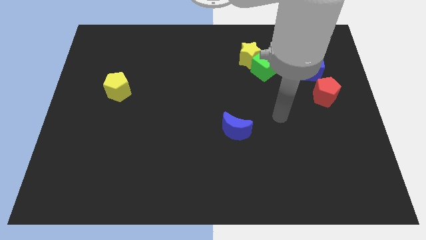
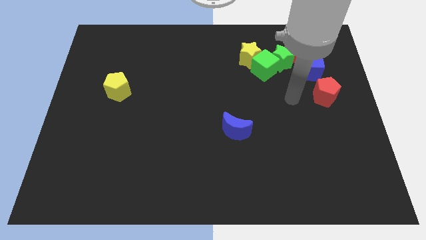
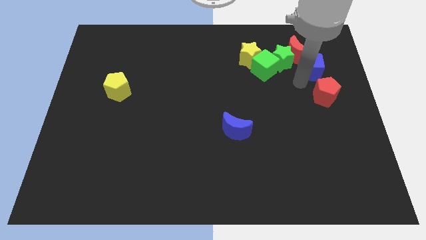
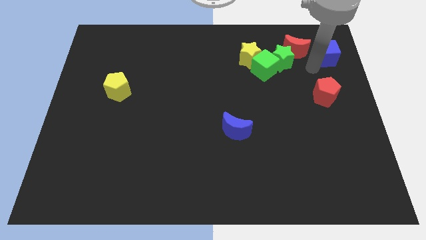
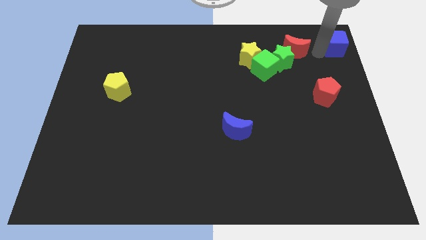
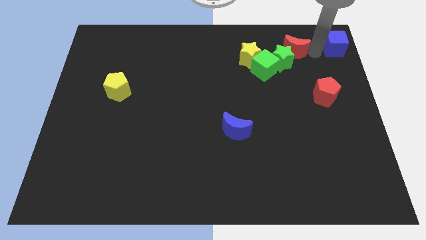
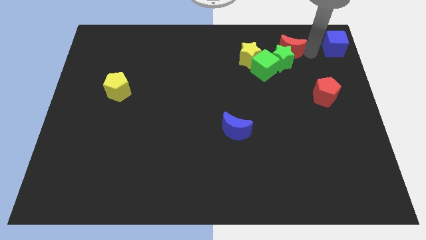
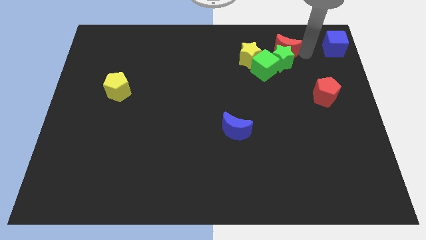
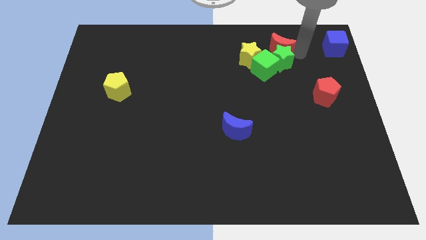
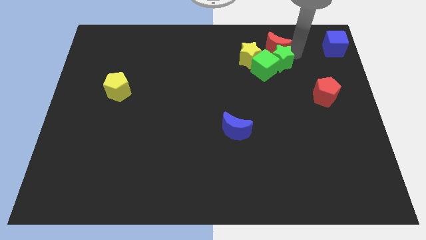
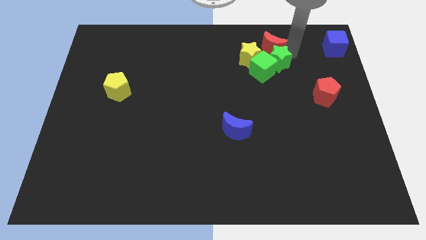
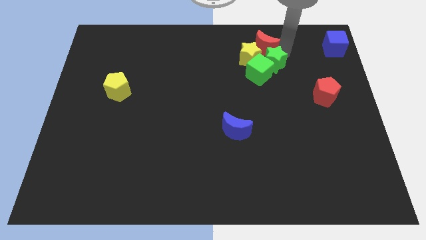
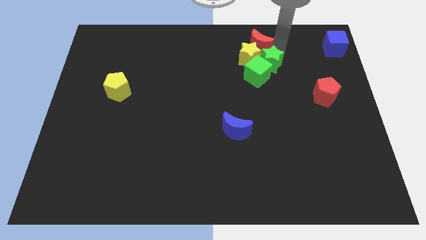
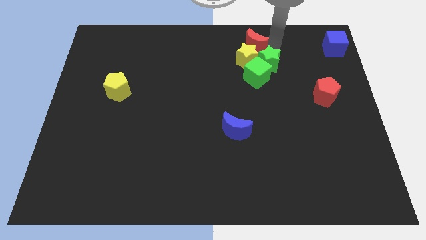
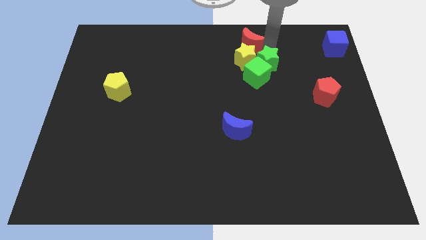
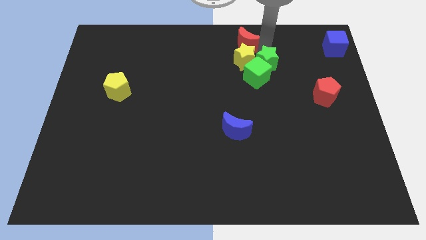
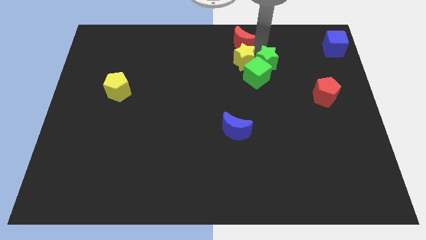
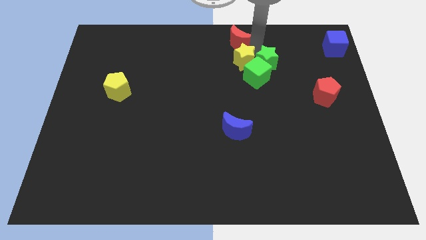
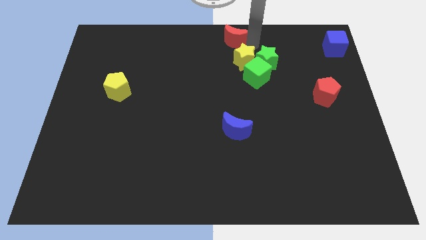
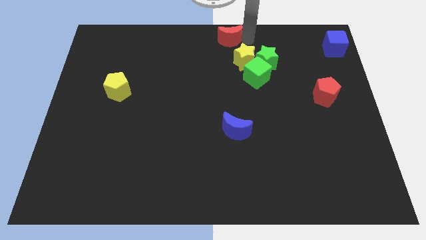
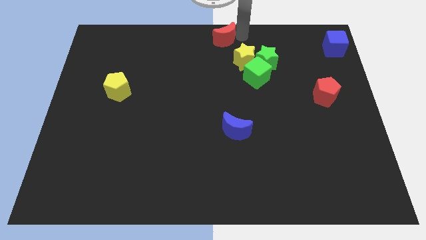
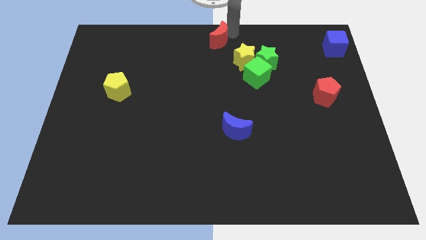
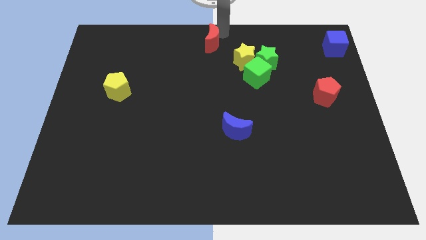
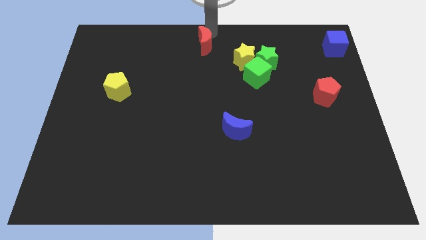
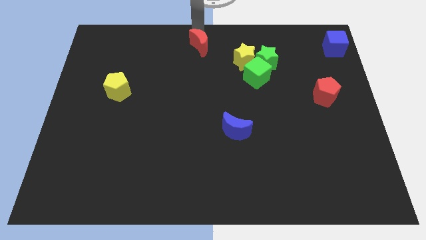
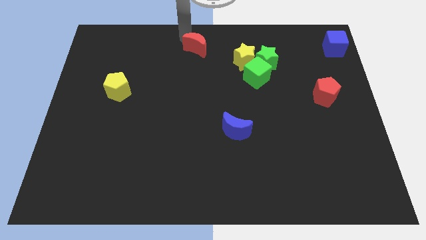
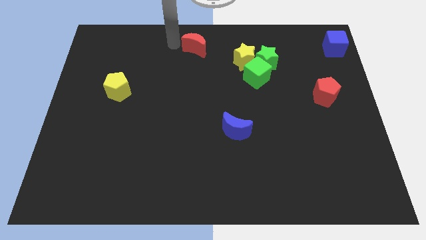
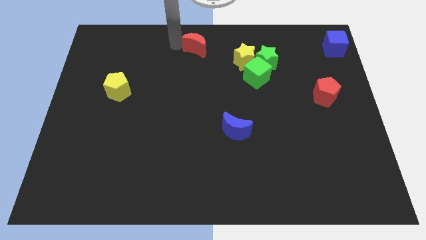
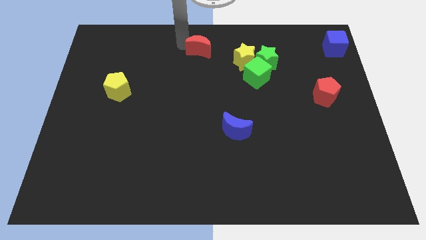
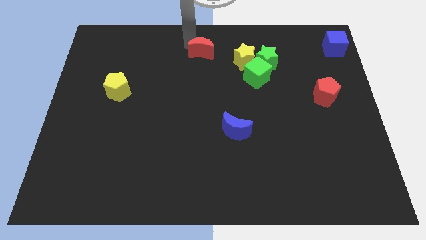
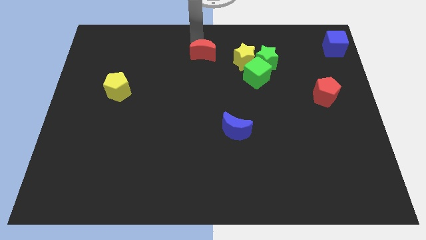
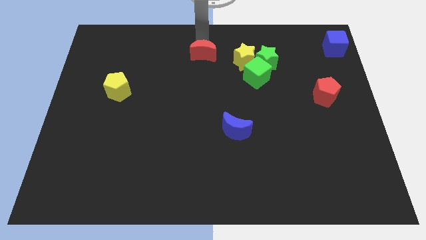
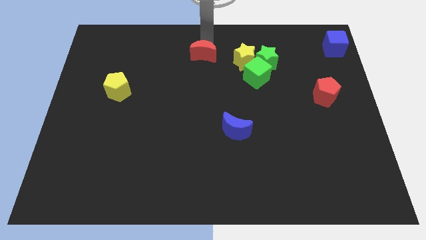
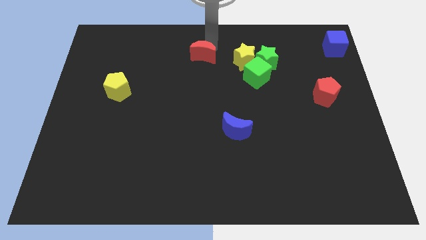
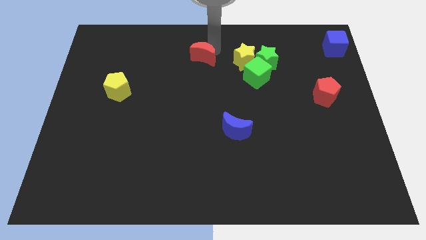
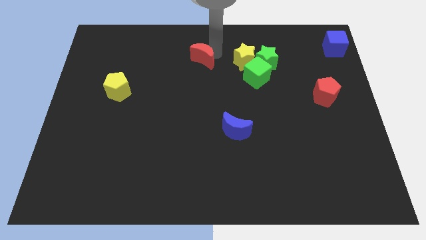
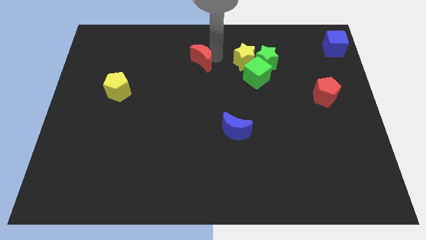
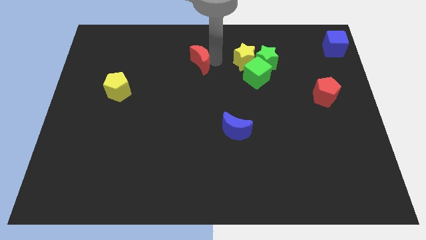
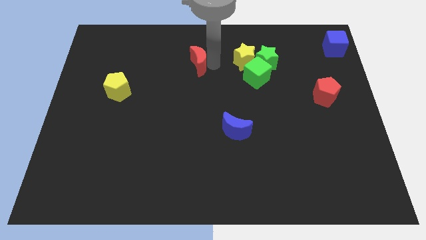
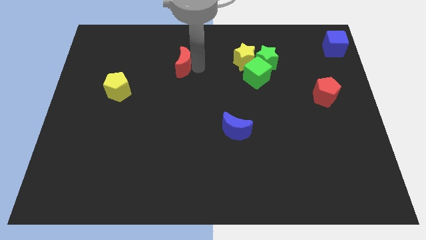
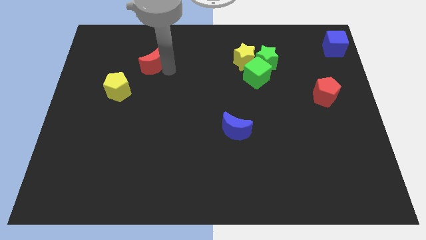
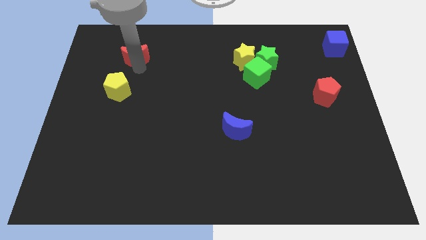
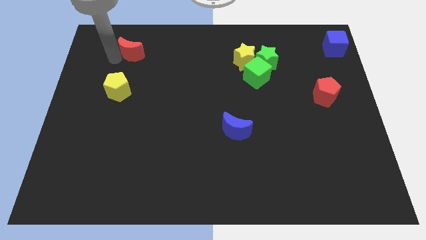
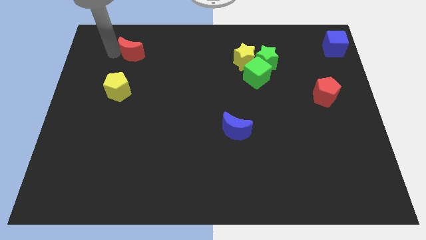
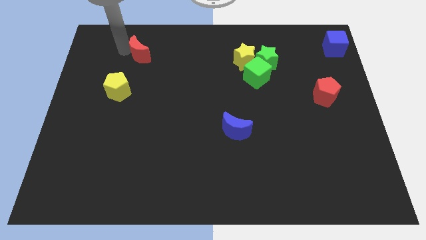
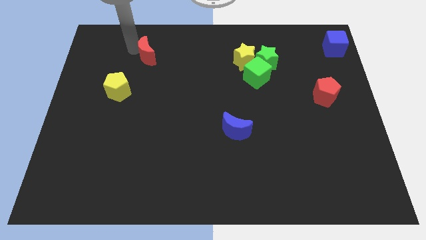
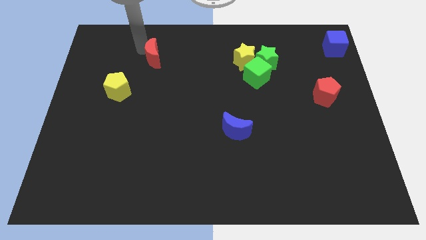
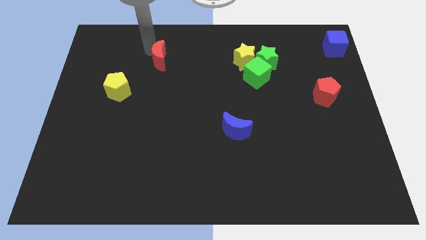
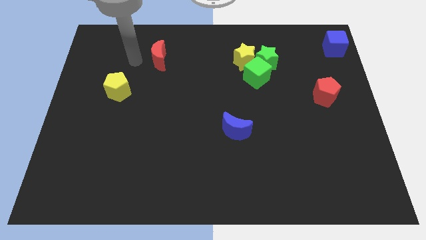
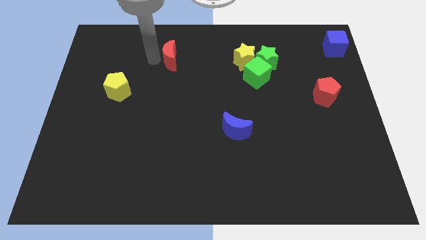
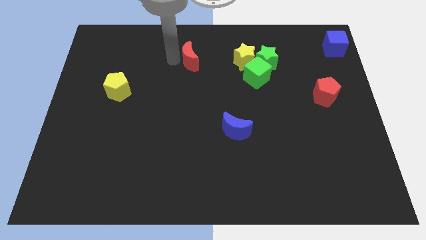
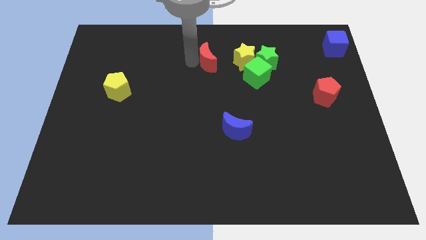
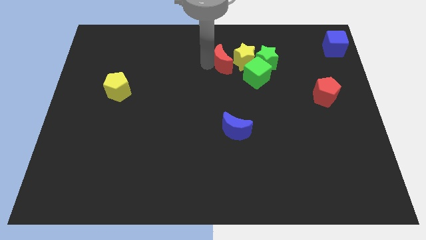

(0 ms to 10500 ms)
slightly push the red moon diagonally downwards and left

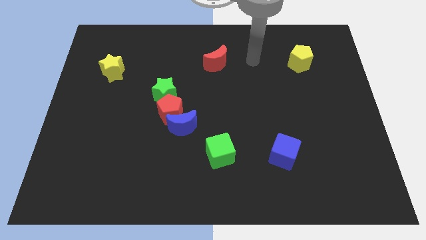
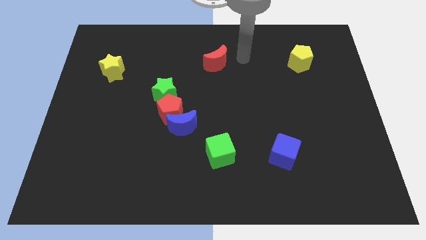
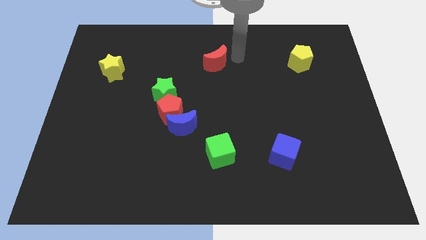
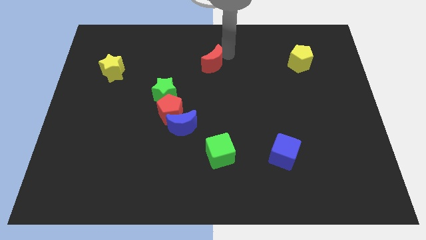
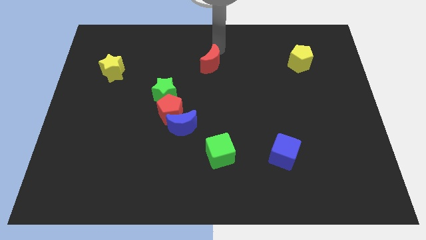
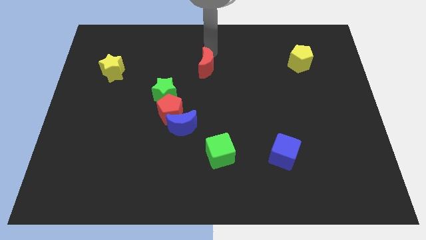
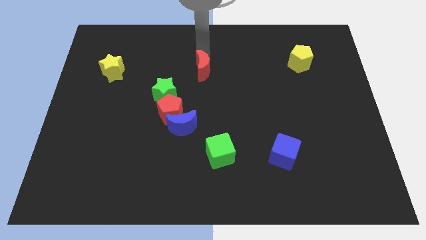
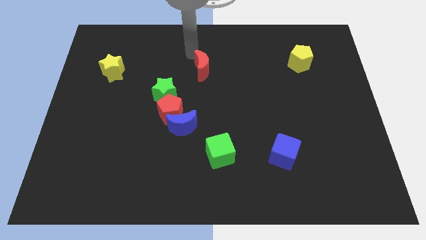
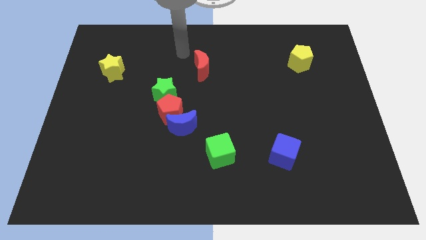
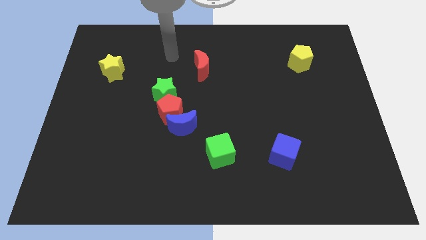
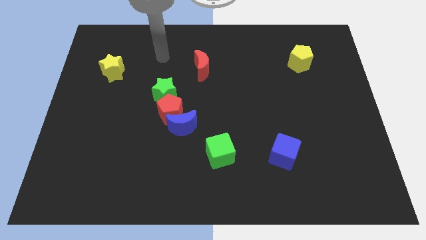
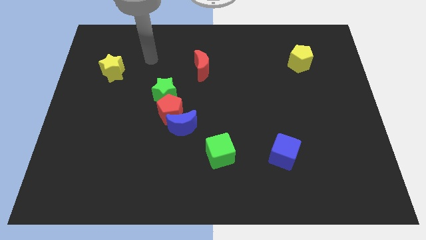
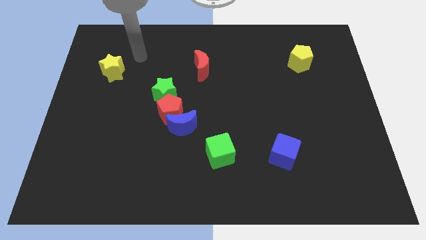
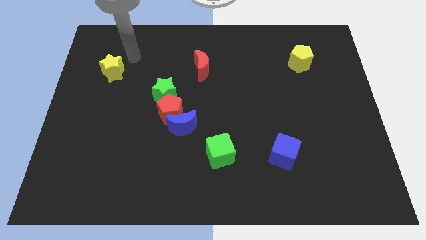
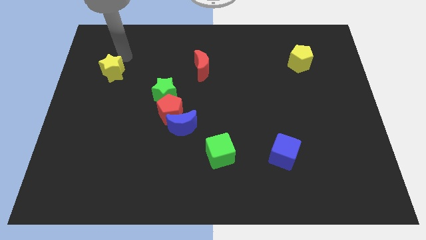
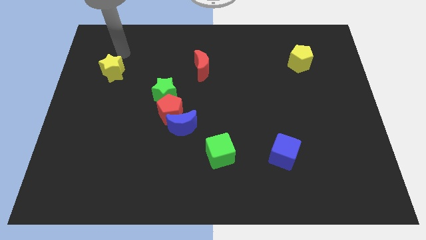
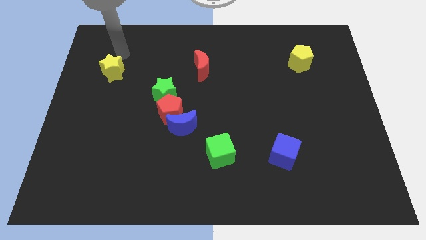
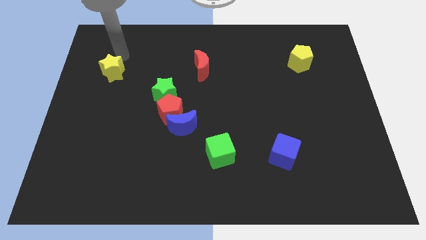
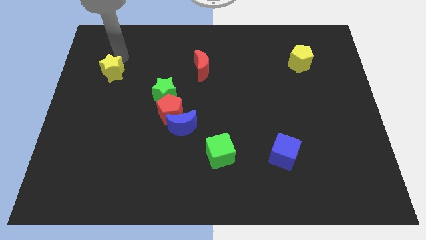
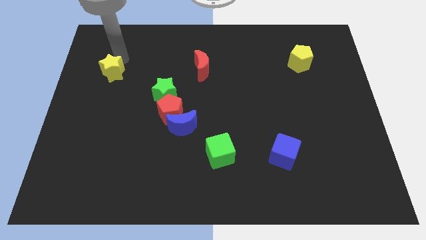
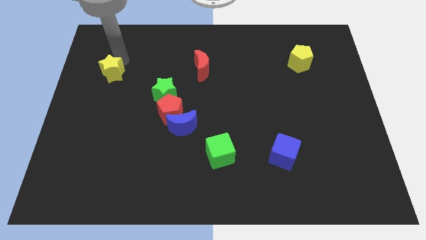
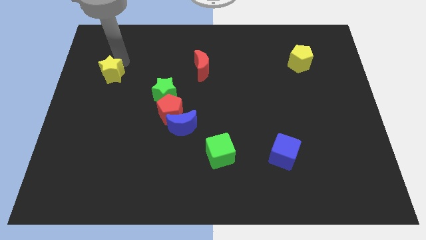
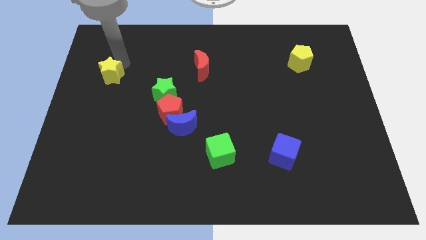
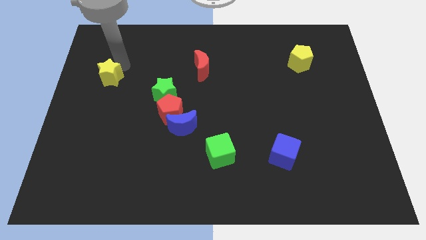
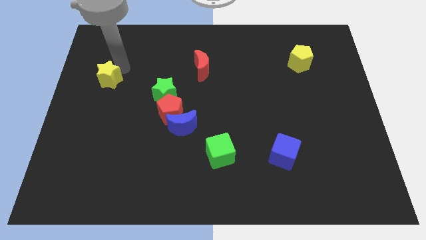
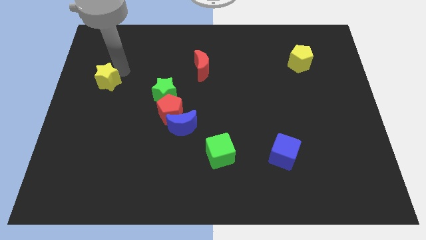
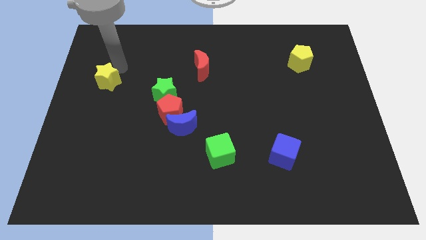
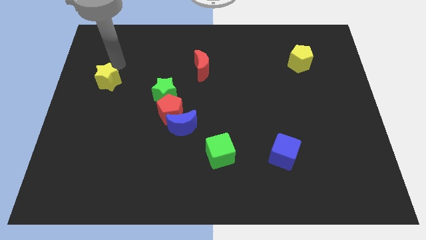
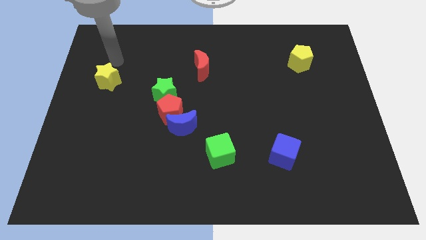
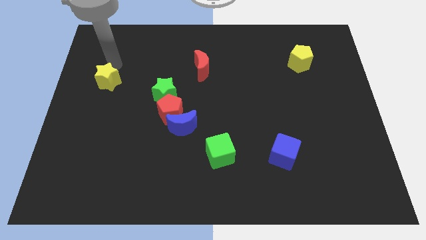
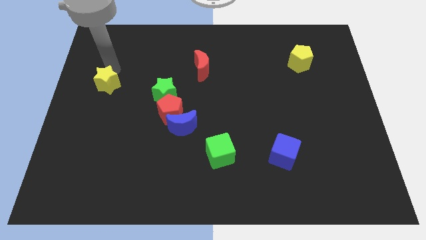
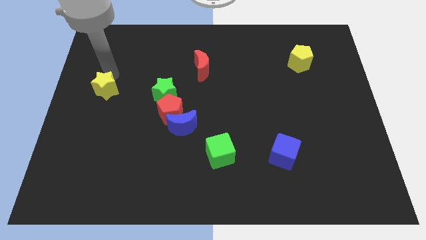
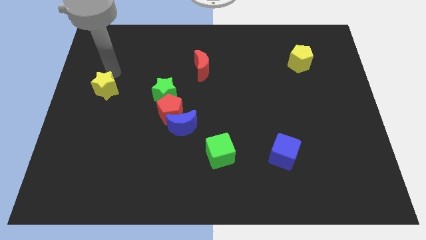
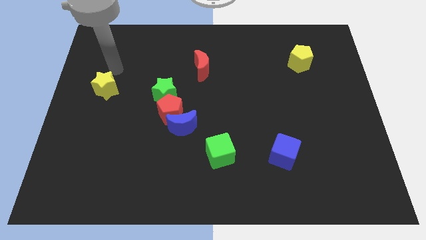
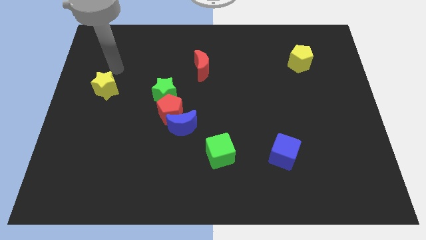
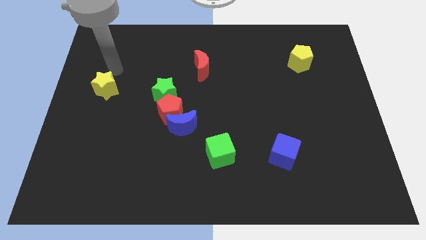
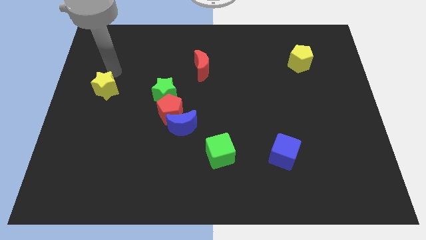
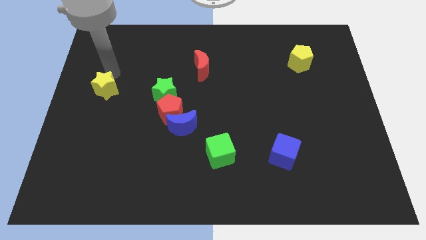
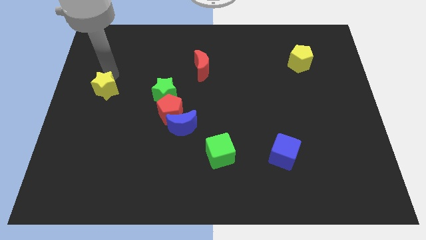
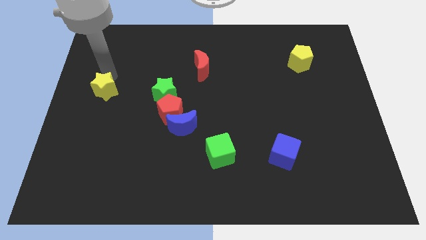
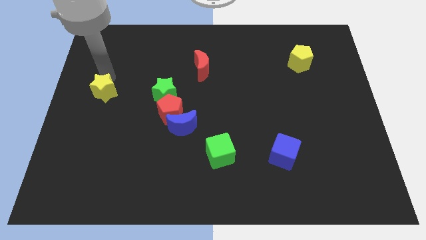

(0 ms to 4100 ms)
slightly slide the yellow star down
